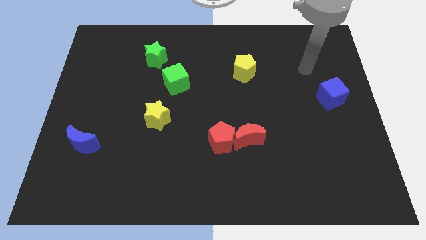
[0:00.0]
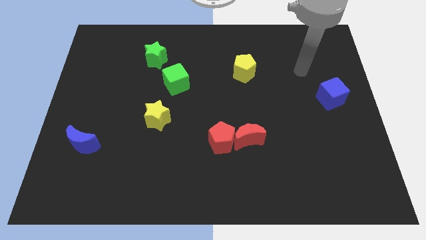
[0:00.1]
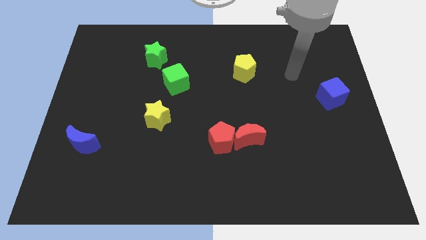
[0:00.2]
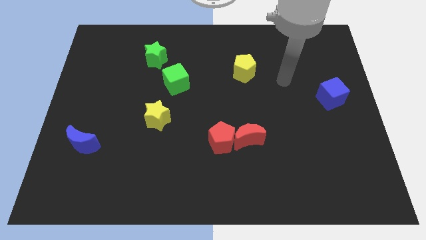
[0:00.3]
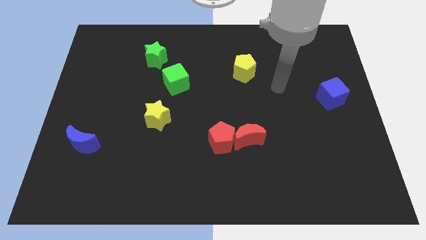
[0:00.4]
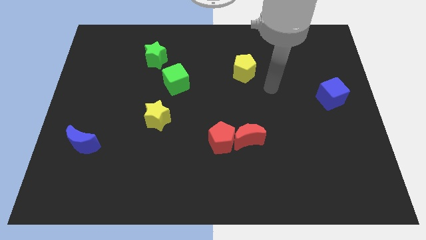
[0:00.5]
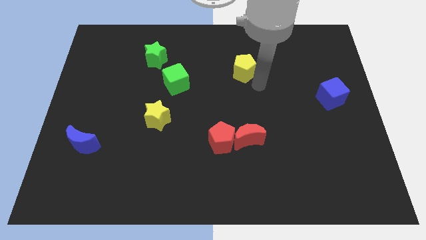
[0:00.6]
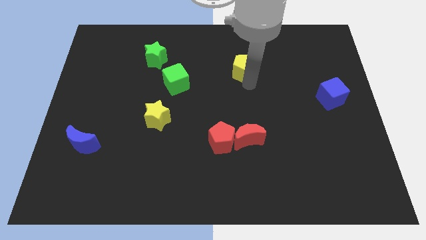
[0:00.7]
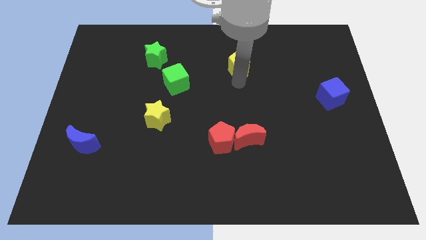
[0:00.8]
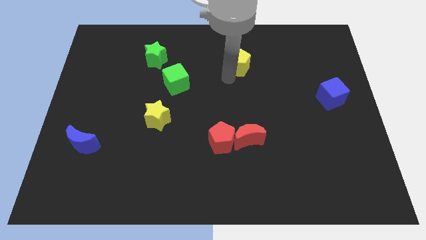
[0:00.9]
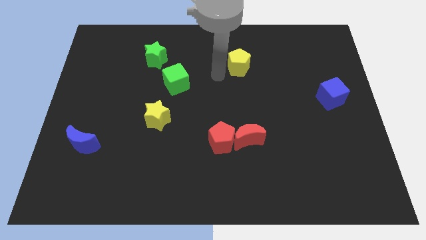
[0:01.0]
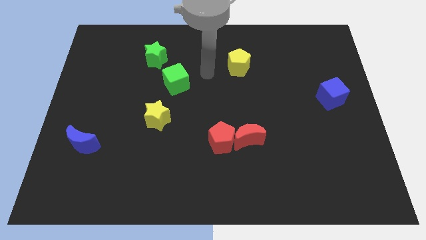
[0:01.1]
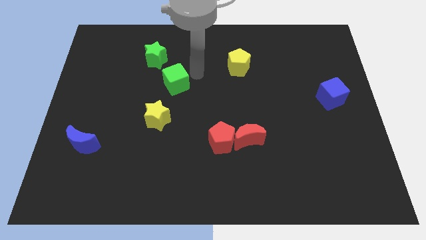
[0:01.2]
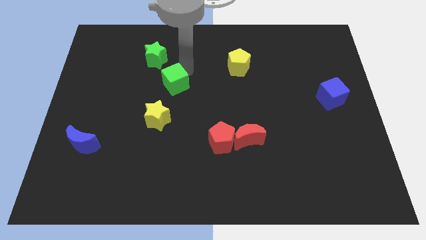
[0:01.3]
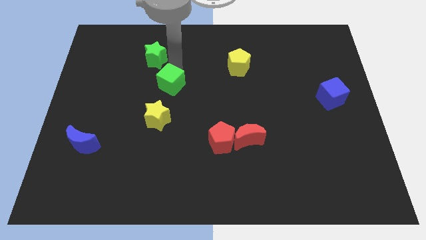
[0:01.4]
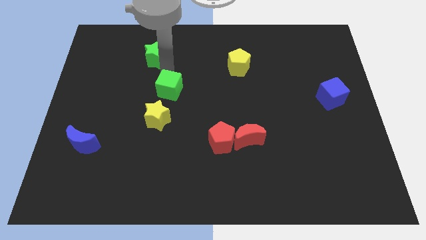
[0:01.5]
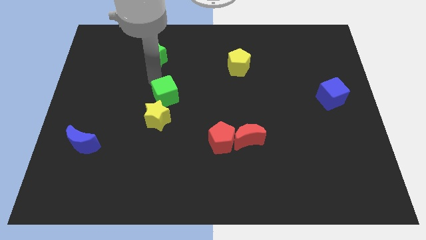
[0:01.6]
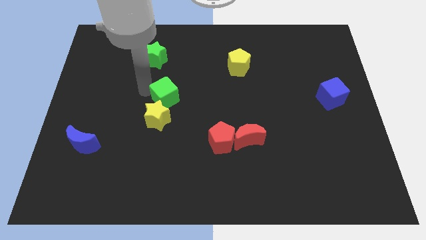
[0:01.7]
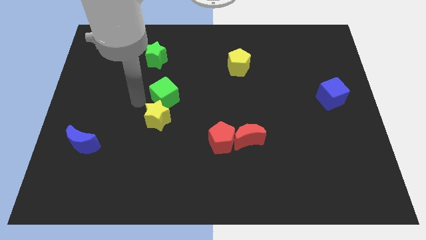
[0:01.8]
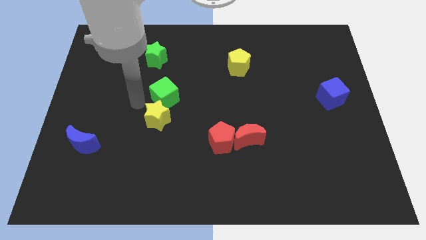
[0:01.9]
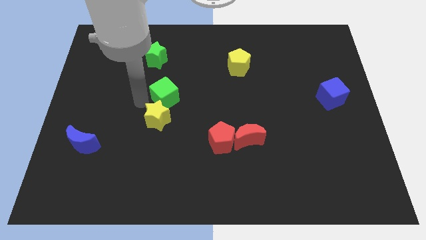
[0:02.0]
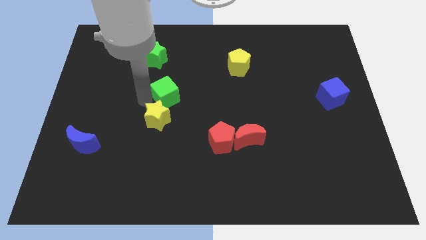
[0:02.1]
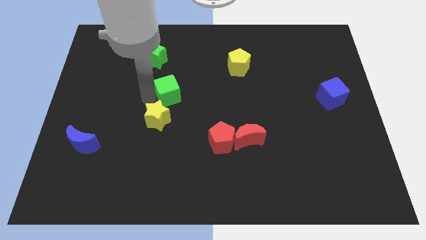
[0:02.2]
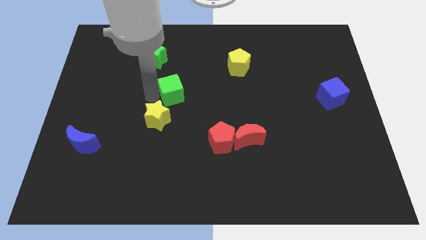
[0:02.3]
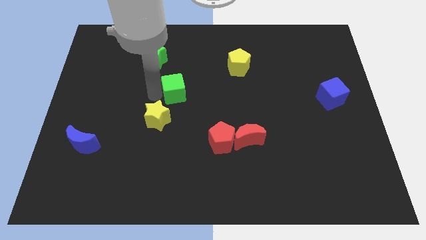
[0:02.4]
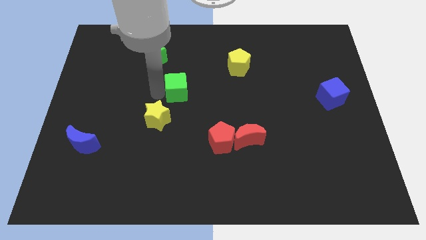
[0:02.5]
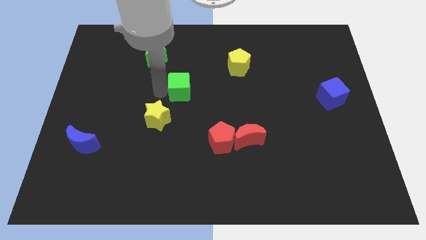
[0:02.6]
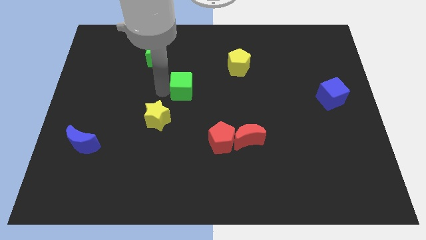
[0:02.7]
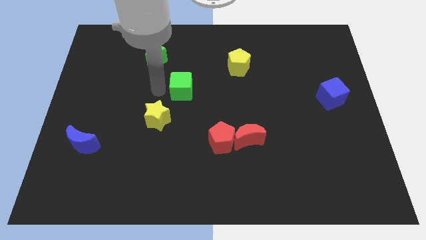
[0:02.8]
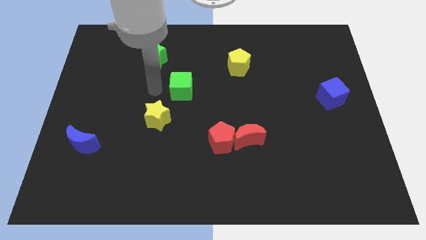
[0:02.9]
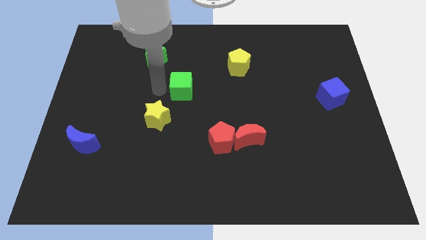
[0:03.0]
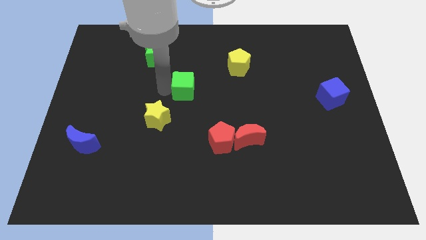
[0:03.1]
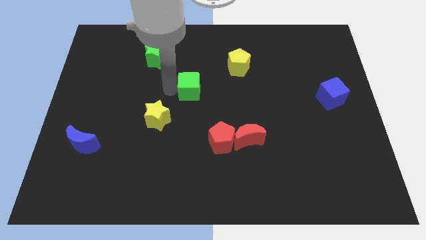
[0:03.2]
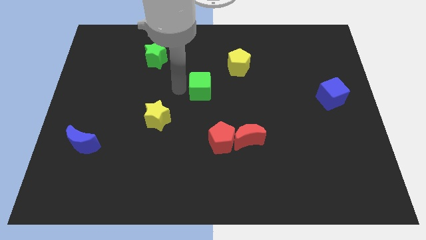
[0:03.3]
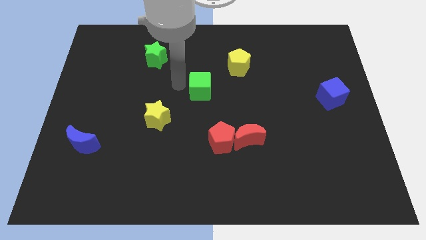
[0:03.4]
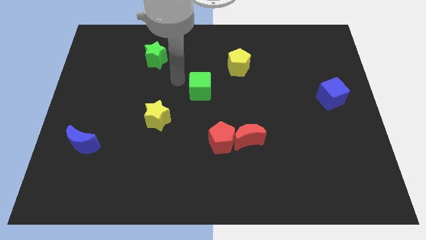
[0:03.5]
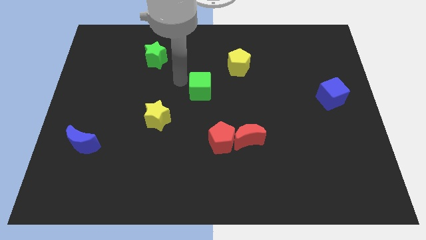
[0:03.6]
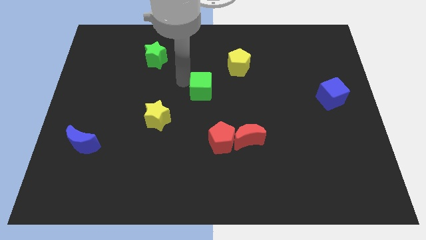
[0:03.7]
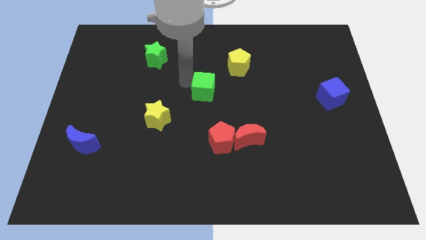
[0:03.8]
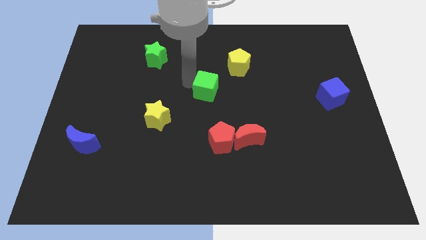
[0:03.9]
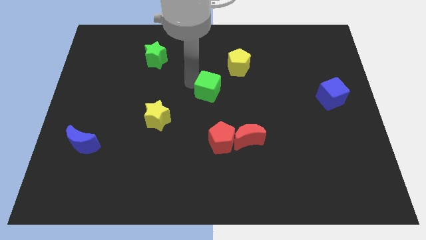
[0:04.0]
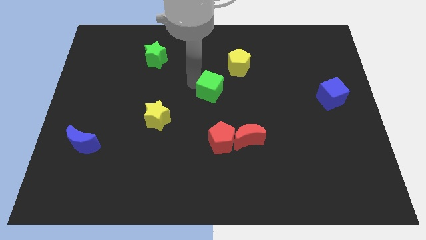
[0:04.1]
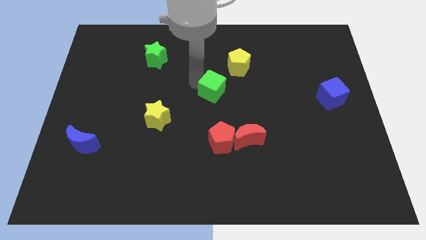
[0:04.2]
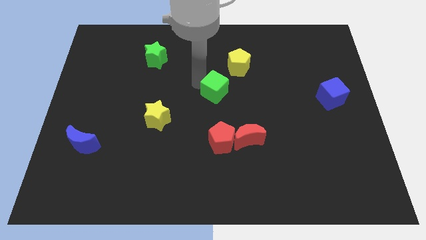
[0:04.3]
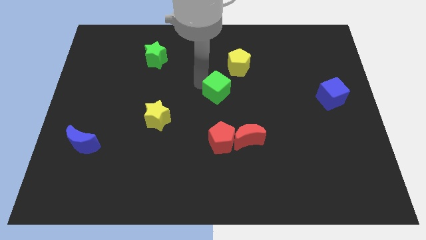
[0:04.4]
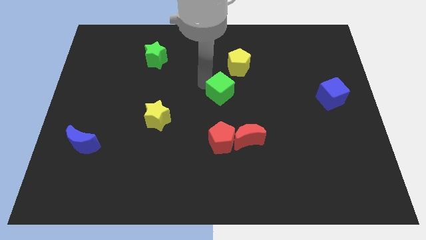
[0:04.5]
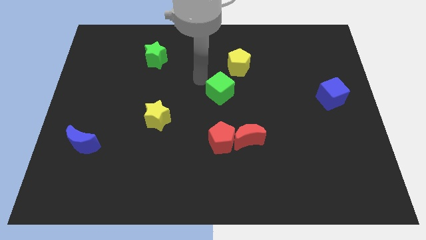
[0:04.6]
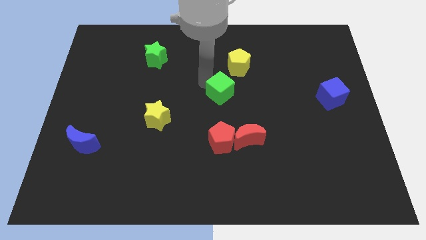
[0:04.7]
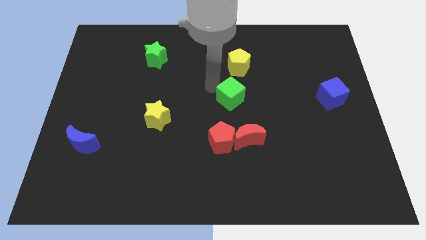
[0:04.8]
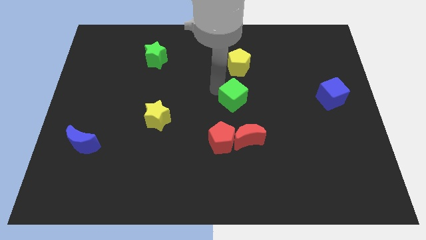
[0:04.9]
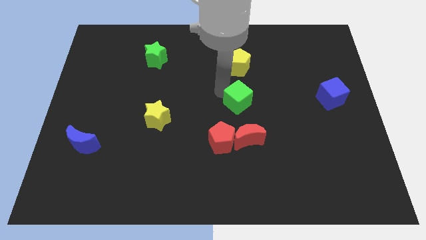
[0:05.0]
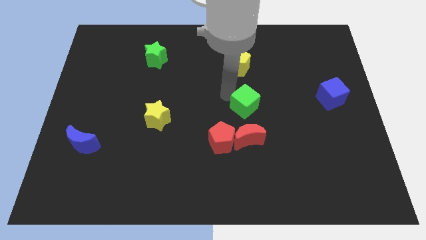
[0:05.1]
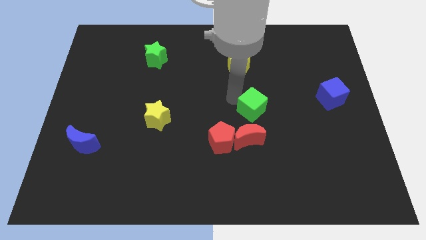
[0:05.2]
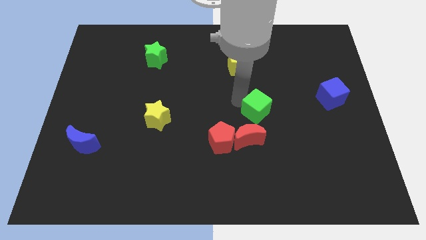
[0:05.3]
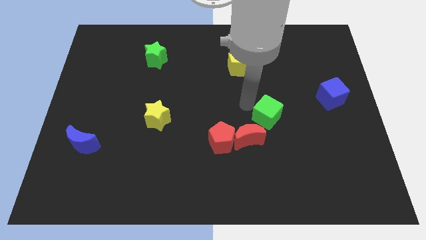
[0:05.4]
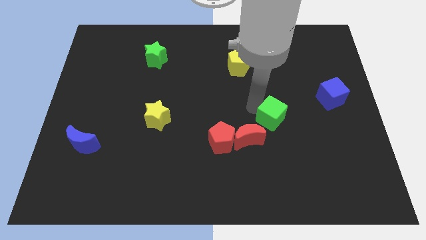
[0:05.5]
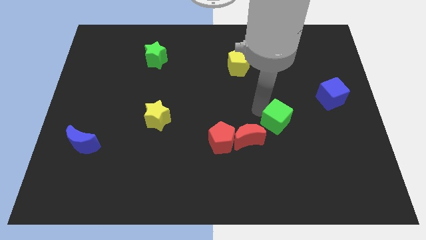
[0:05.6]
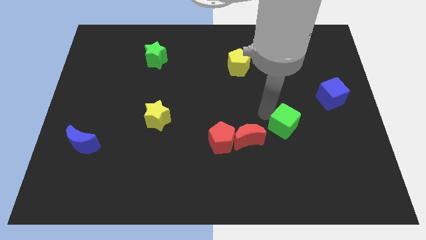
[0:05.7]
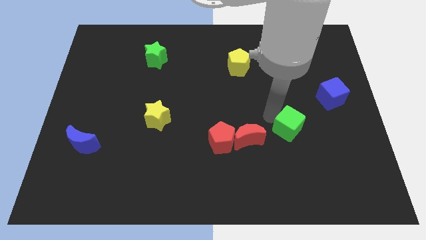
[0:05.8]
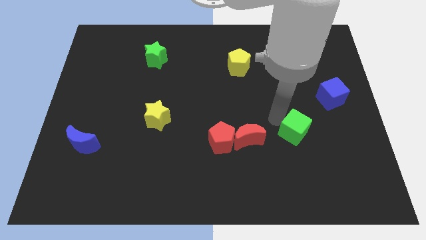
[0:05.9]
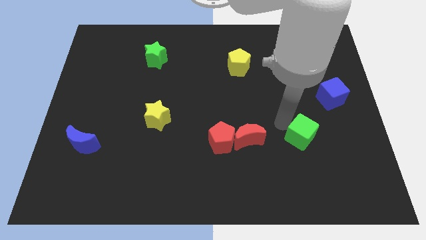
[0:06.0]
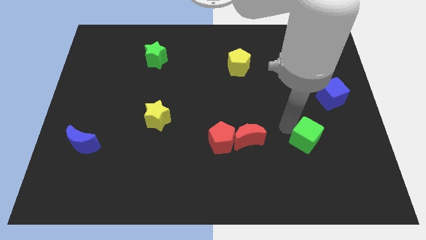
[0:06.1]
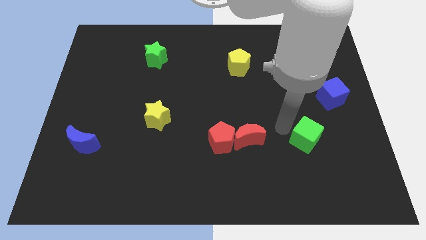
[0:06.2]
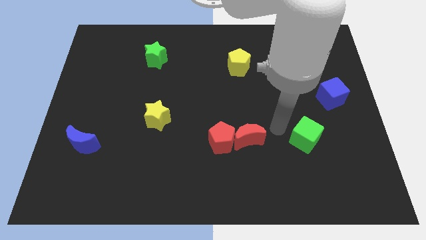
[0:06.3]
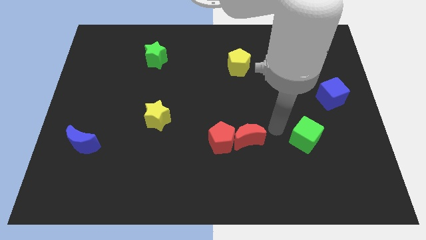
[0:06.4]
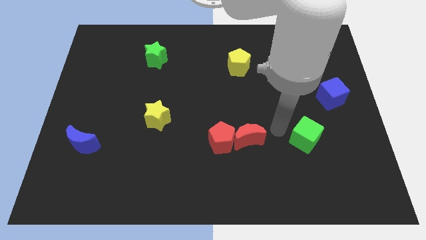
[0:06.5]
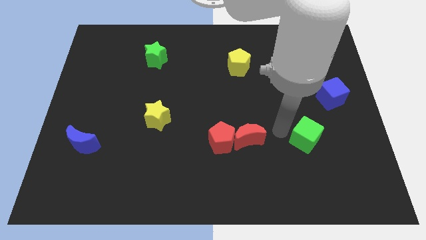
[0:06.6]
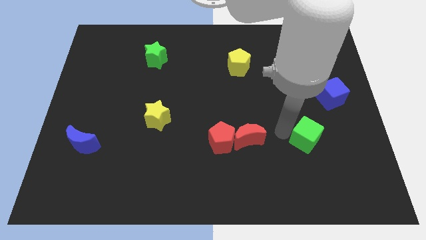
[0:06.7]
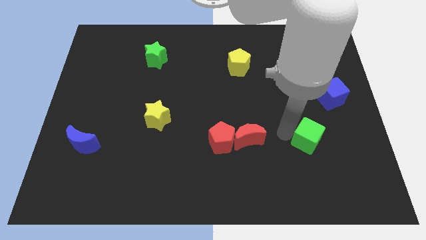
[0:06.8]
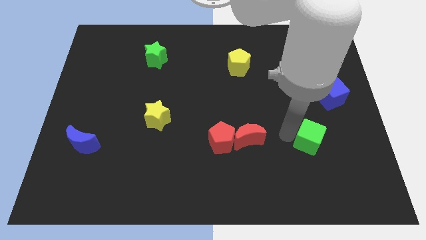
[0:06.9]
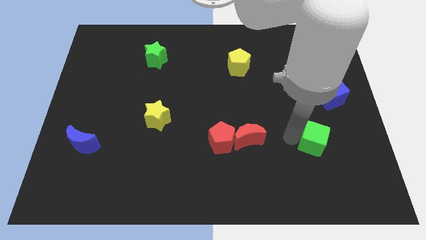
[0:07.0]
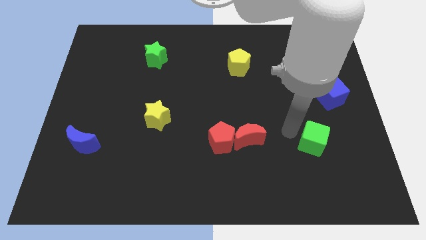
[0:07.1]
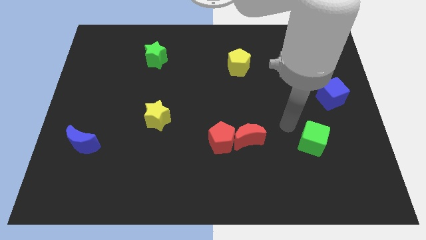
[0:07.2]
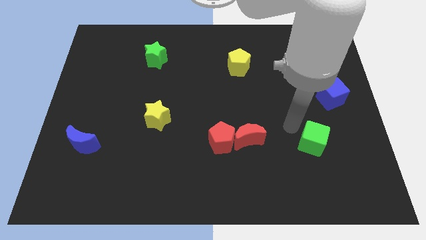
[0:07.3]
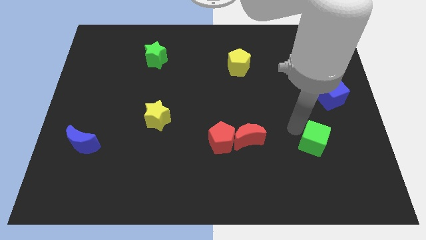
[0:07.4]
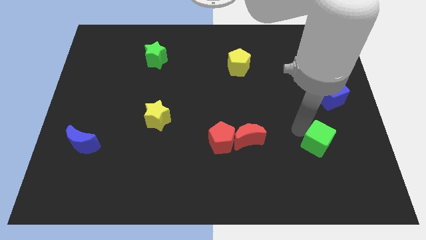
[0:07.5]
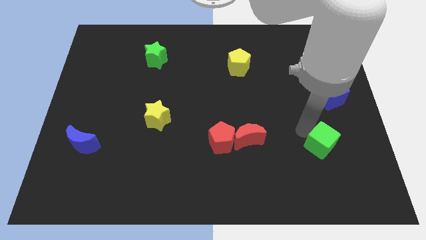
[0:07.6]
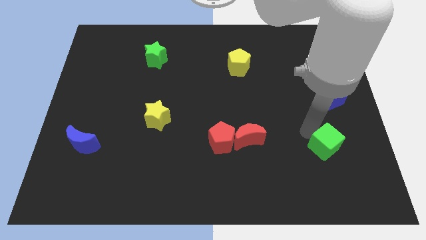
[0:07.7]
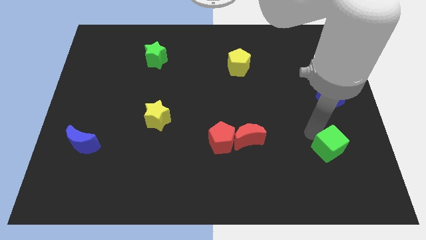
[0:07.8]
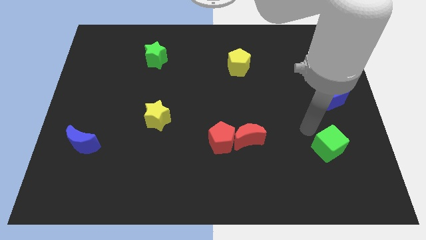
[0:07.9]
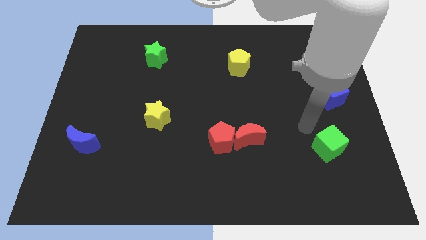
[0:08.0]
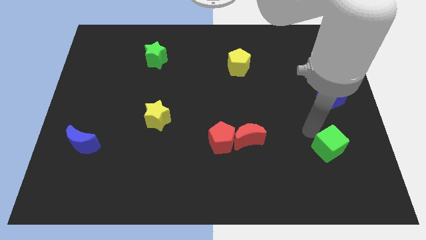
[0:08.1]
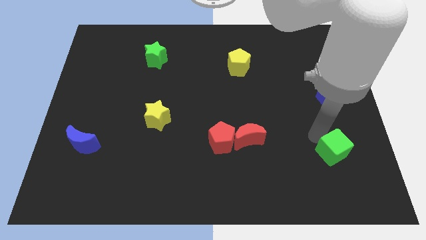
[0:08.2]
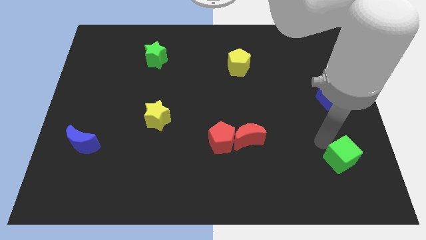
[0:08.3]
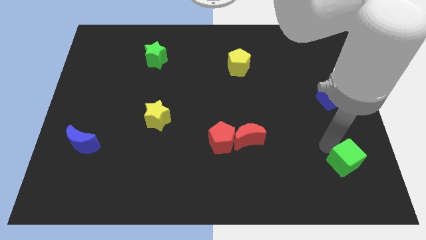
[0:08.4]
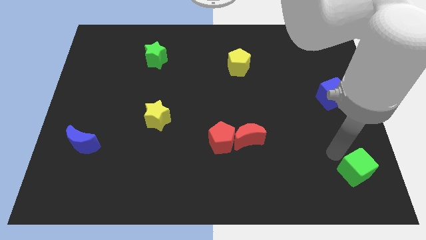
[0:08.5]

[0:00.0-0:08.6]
push the green cube to the bottom right corner
